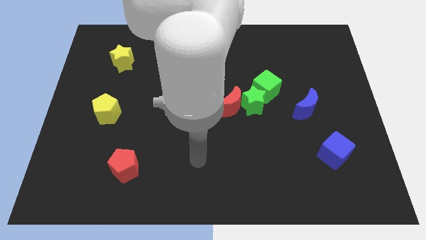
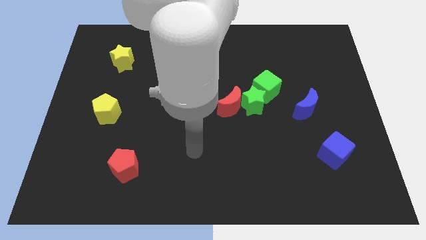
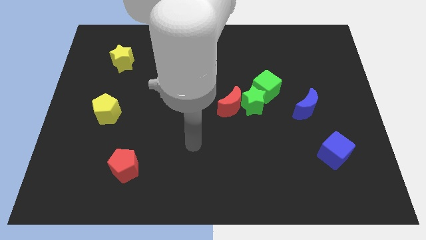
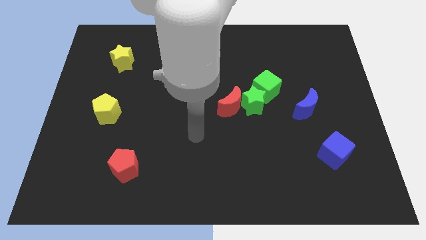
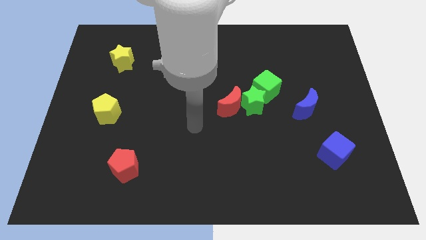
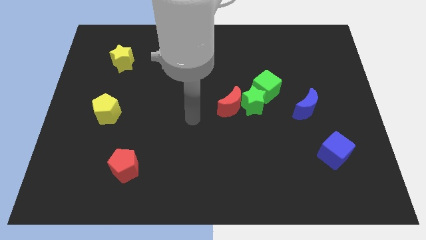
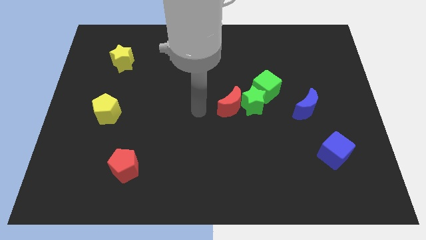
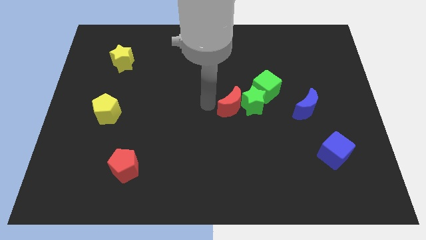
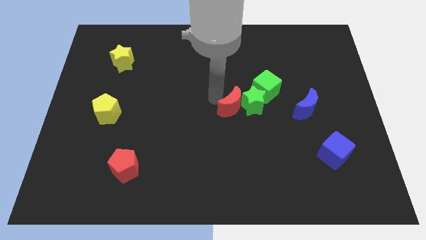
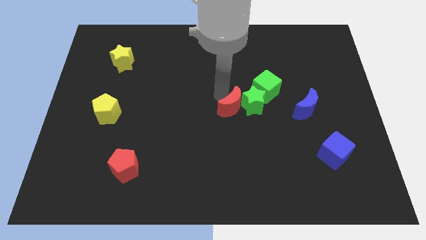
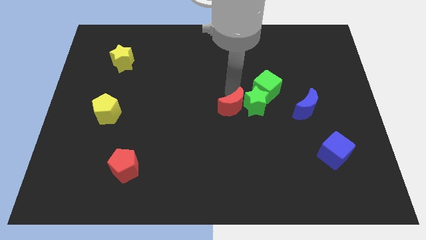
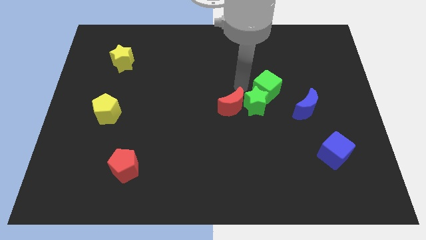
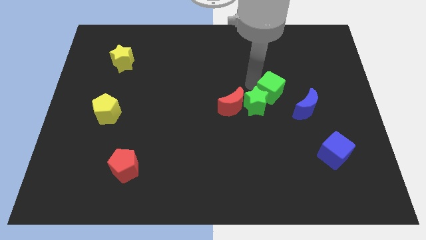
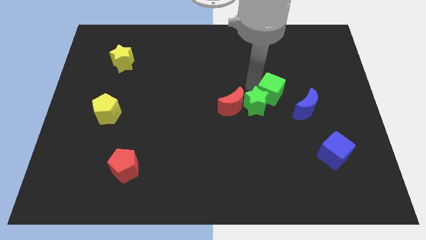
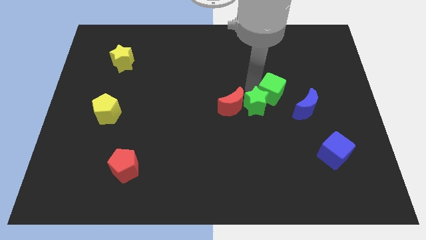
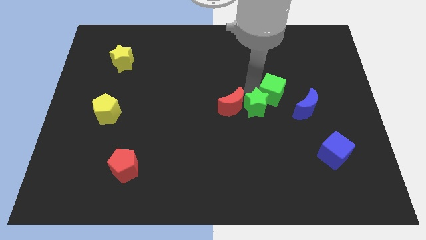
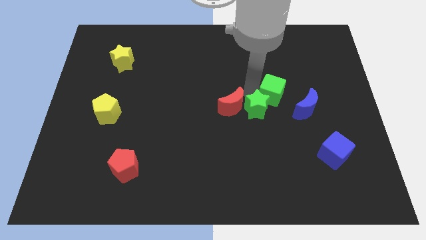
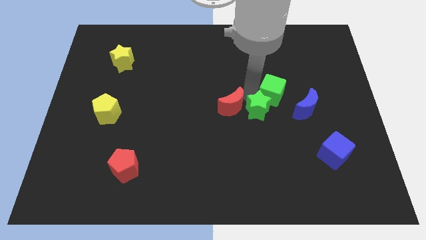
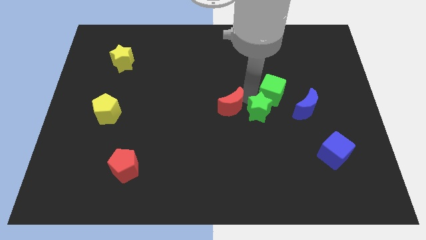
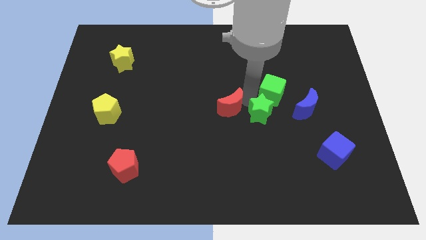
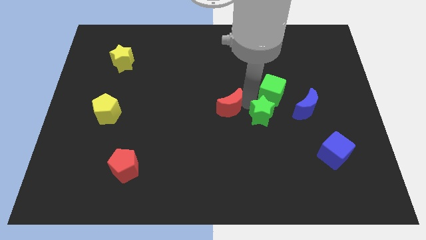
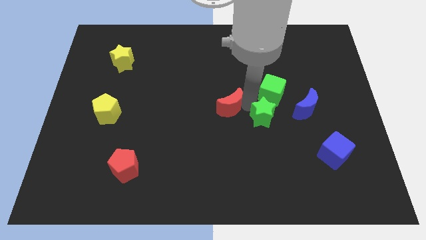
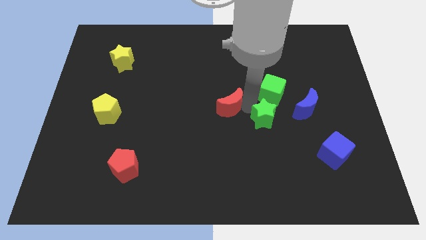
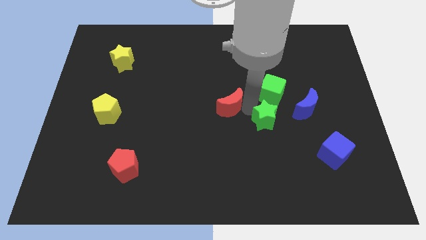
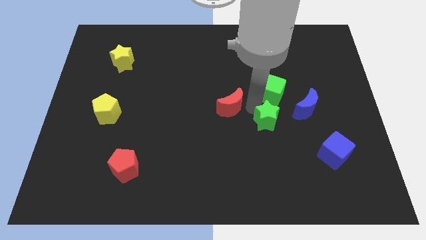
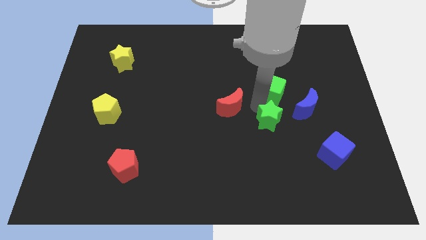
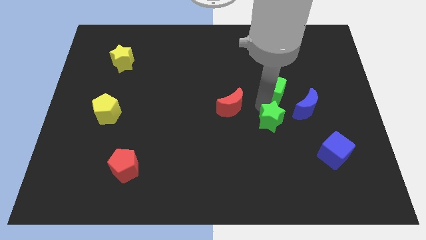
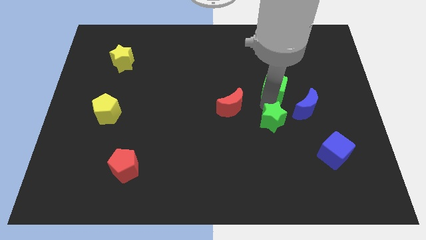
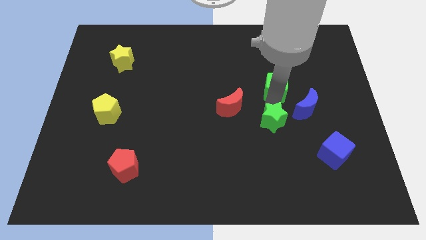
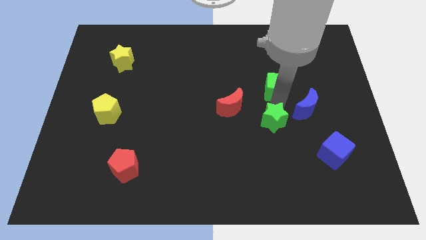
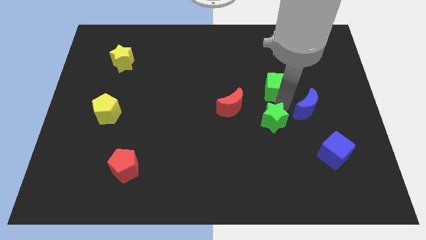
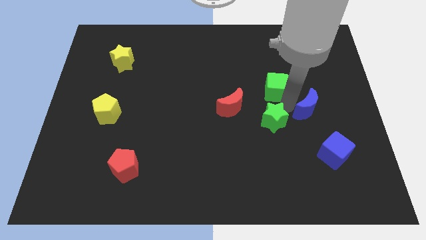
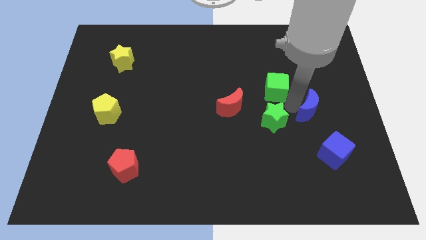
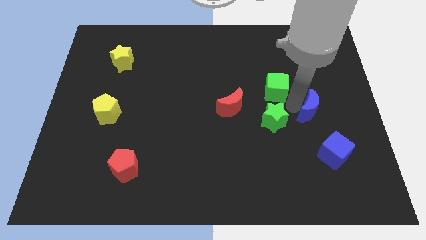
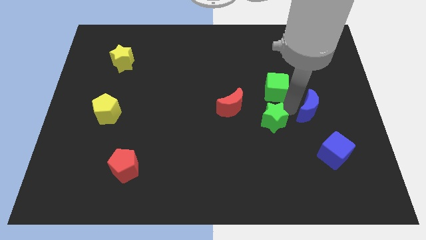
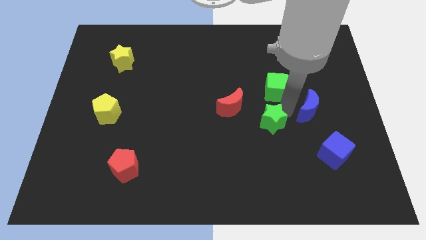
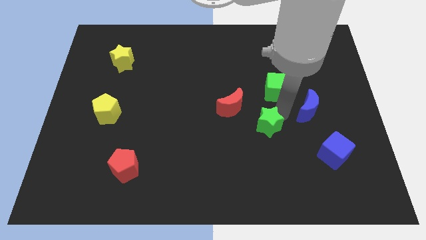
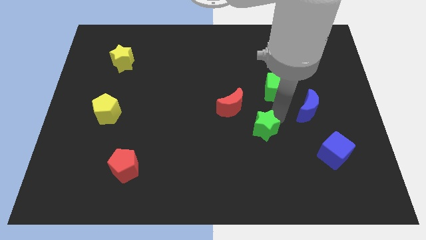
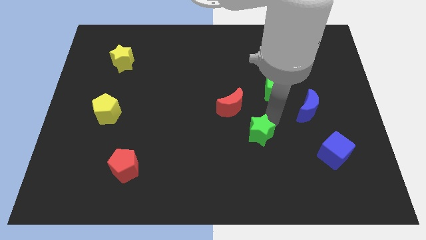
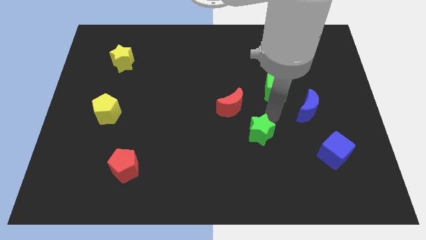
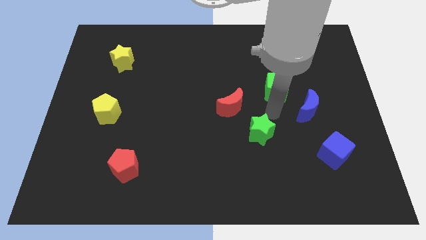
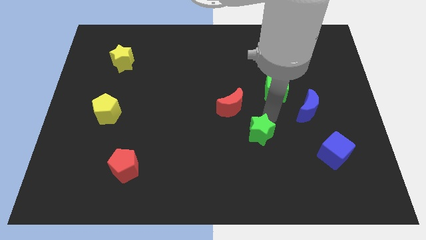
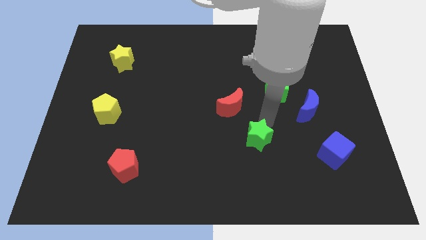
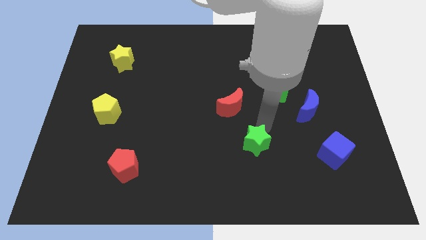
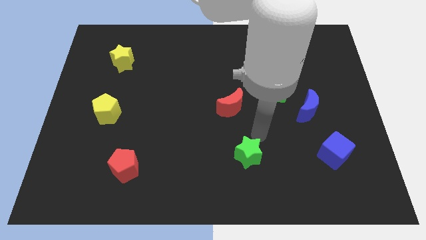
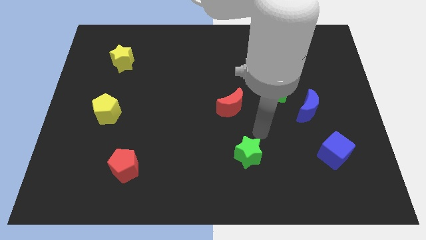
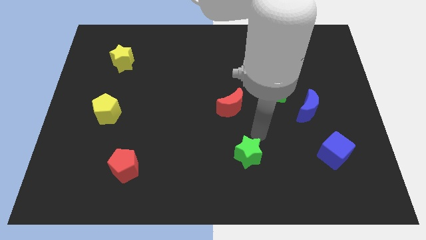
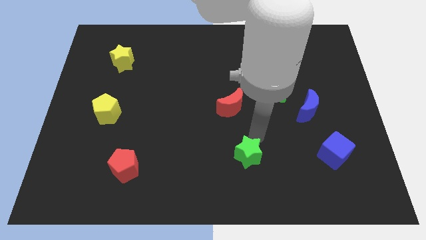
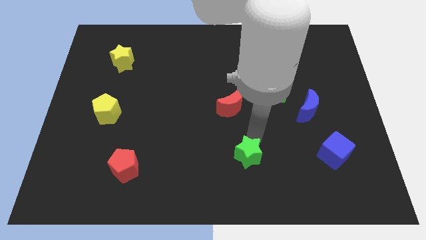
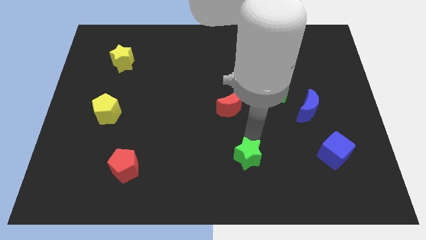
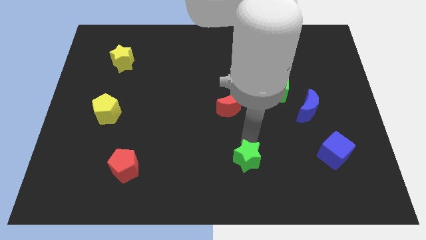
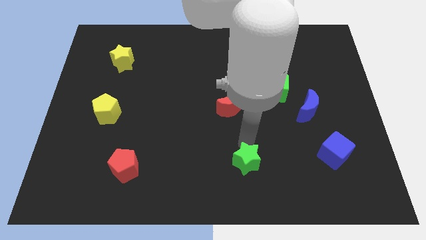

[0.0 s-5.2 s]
move the green star to the bottom
